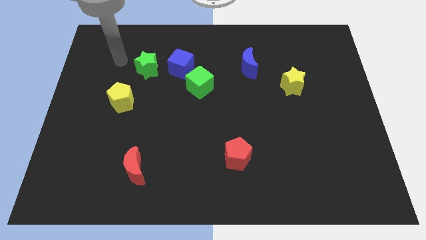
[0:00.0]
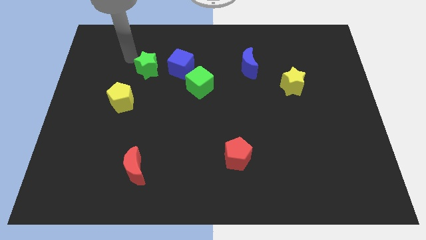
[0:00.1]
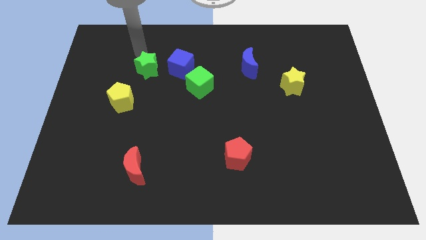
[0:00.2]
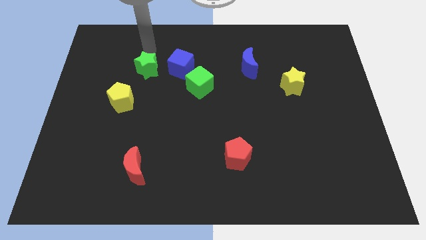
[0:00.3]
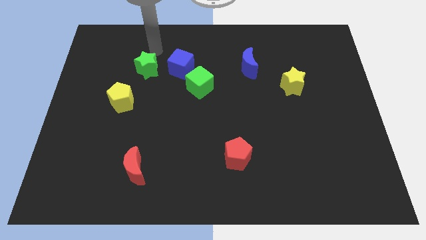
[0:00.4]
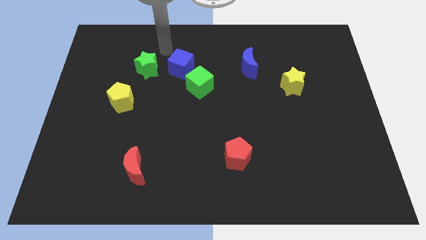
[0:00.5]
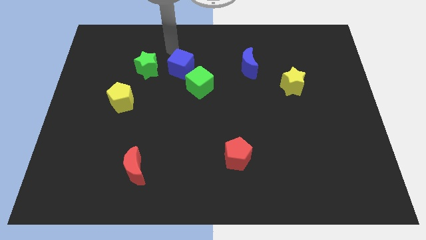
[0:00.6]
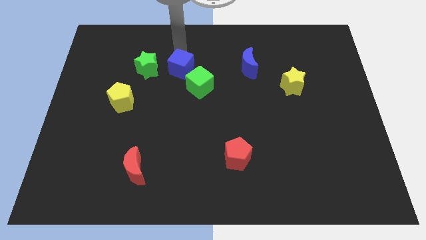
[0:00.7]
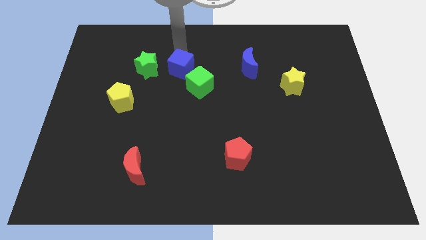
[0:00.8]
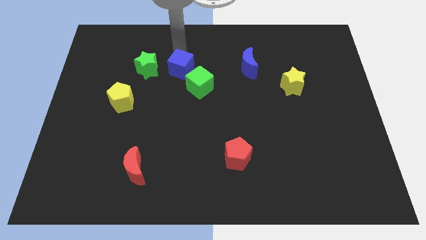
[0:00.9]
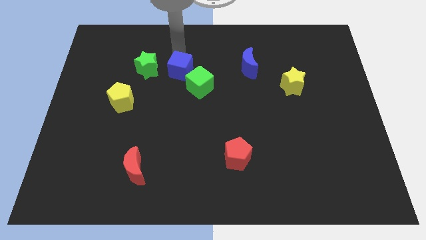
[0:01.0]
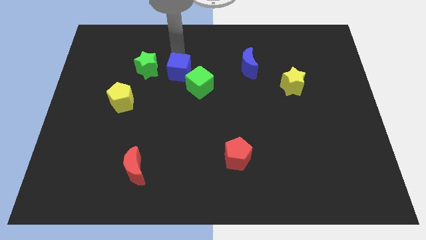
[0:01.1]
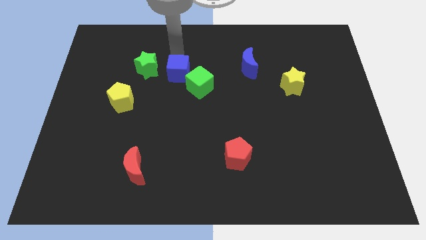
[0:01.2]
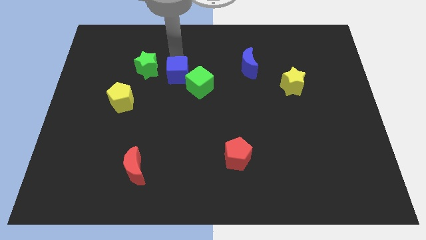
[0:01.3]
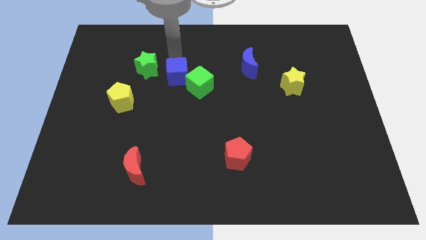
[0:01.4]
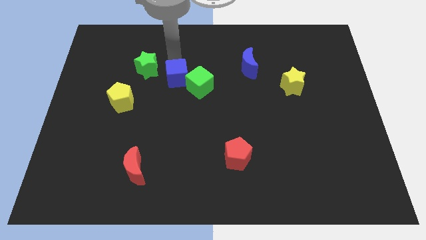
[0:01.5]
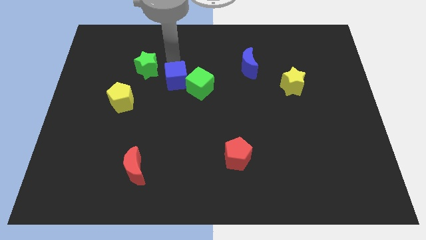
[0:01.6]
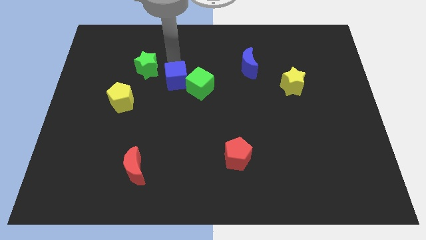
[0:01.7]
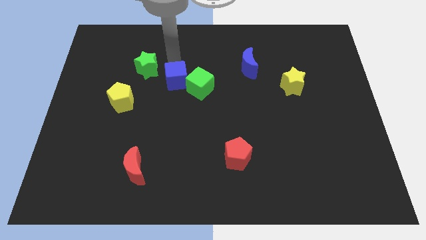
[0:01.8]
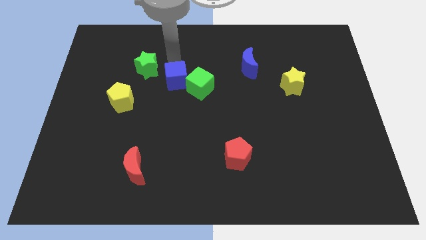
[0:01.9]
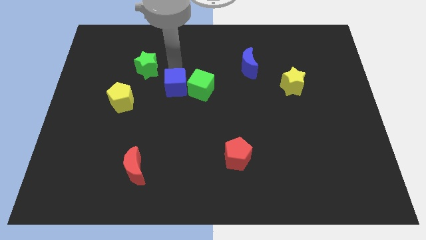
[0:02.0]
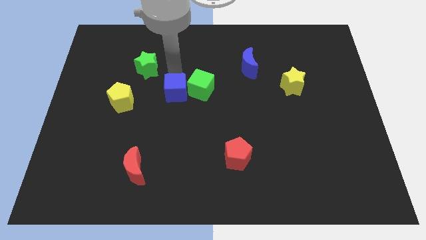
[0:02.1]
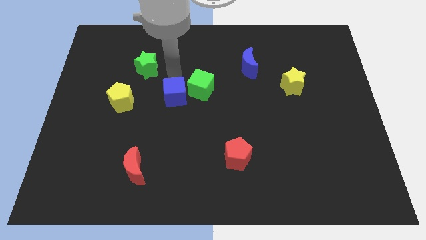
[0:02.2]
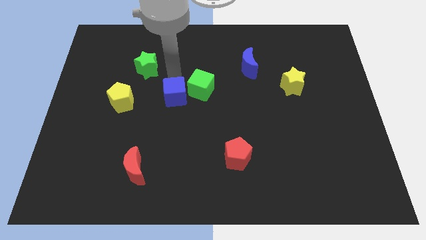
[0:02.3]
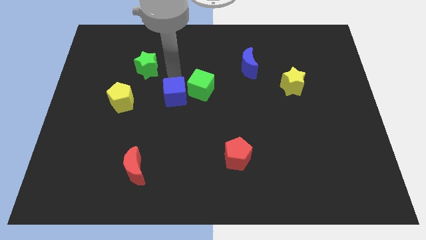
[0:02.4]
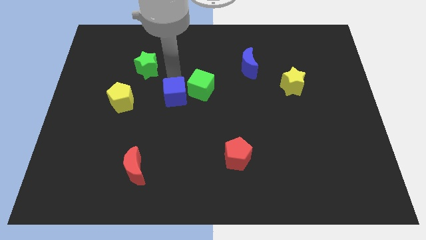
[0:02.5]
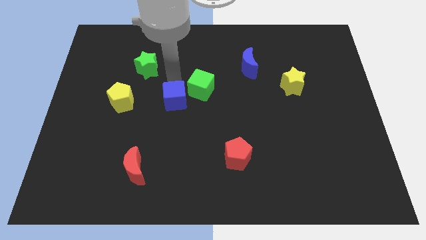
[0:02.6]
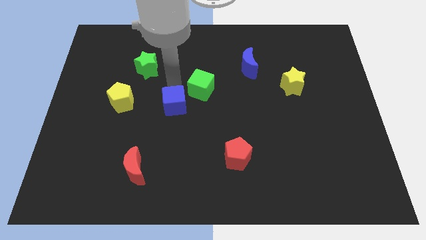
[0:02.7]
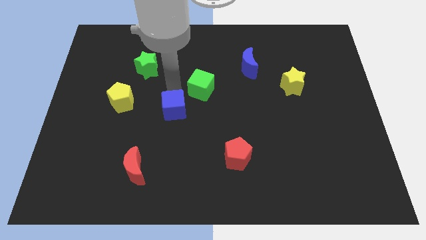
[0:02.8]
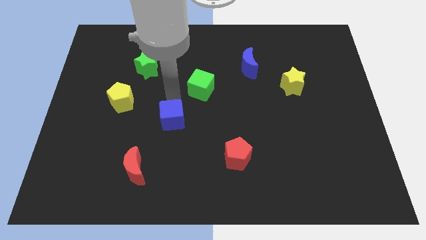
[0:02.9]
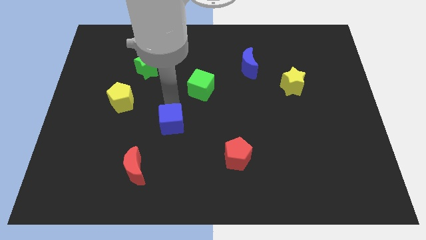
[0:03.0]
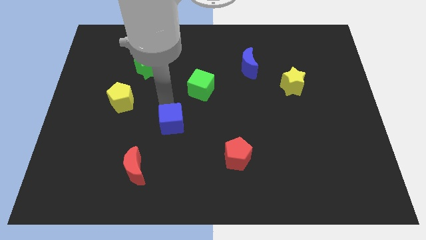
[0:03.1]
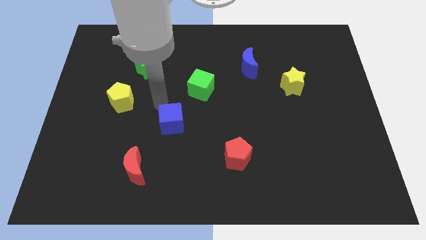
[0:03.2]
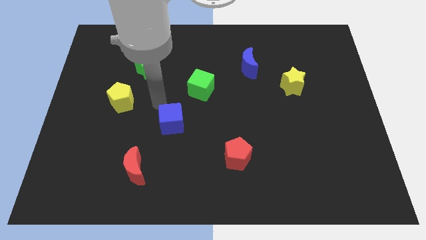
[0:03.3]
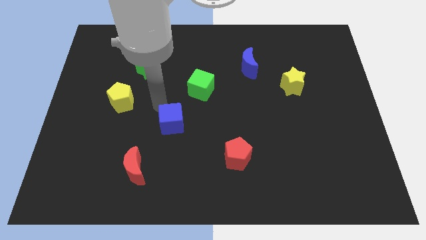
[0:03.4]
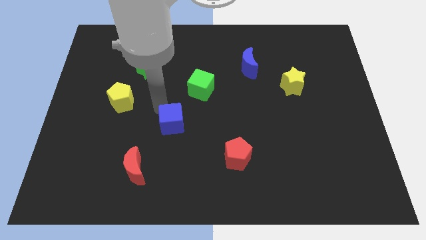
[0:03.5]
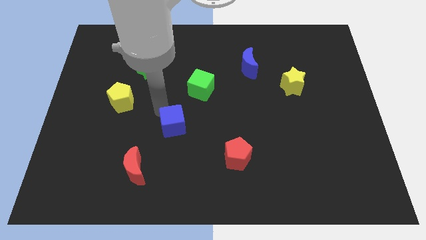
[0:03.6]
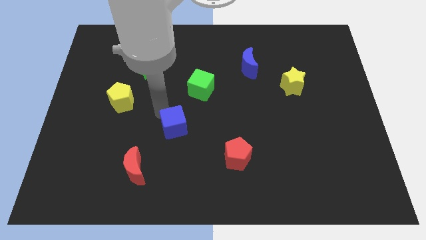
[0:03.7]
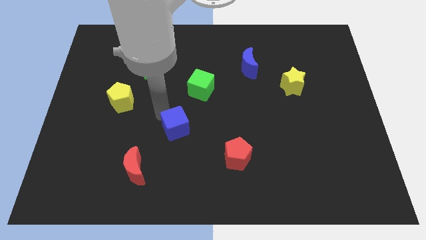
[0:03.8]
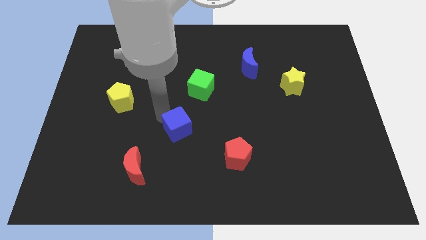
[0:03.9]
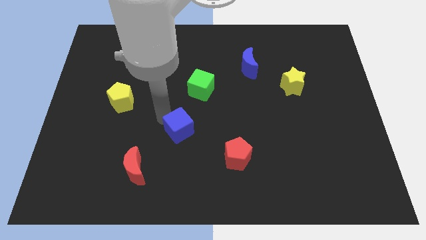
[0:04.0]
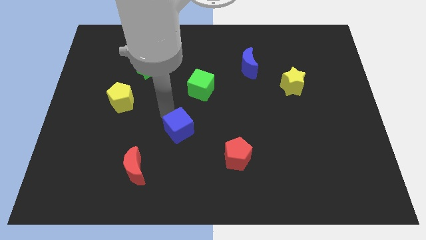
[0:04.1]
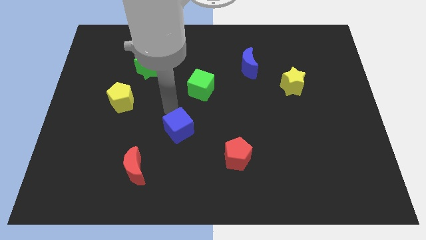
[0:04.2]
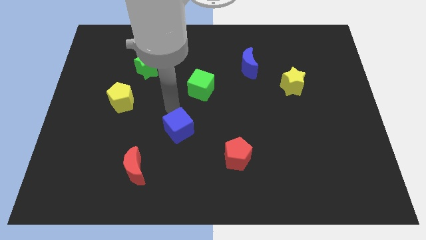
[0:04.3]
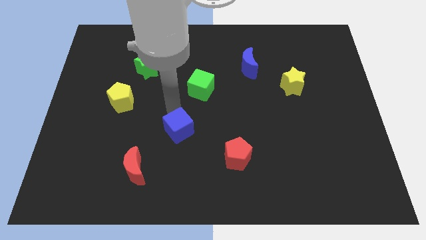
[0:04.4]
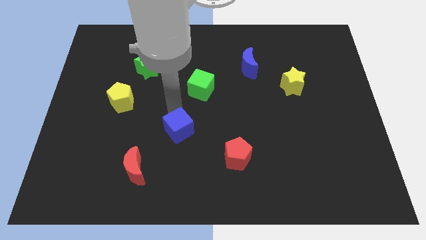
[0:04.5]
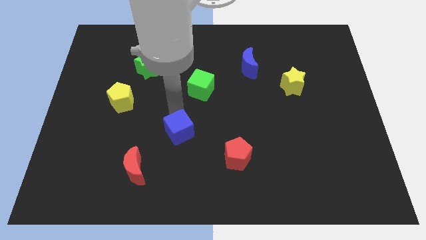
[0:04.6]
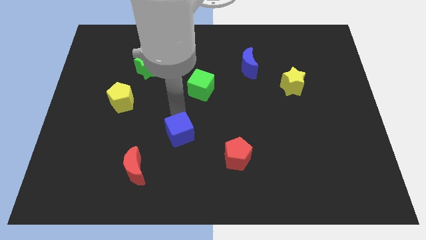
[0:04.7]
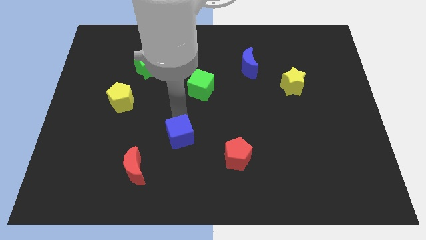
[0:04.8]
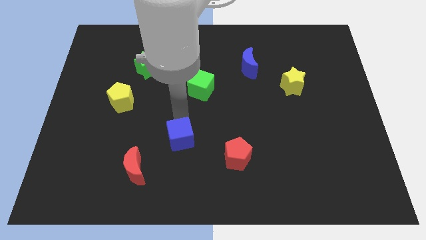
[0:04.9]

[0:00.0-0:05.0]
move the blue cube just left of the red pentagon

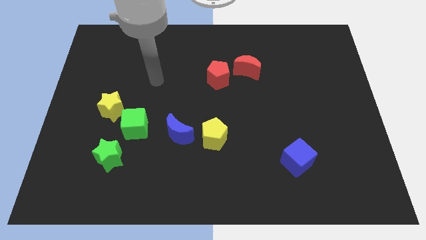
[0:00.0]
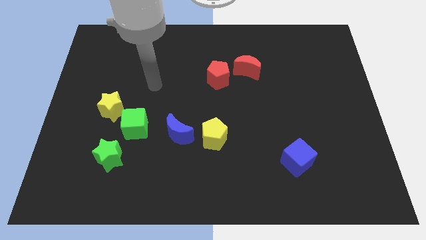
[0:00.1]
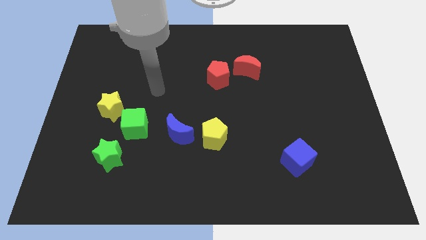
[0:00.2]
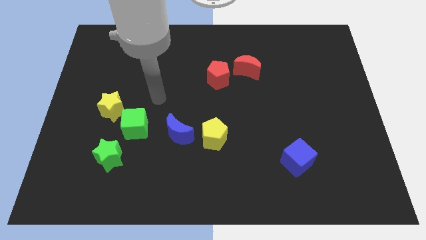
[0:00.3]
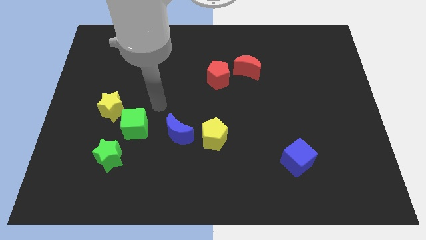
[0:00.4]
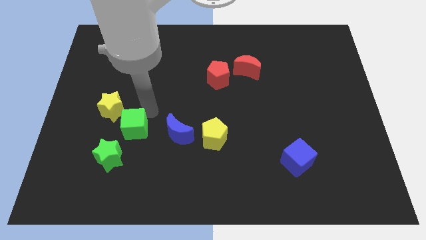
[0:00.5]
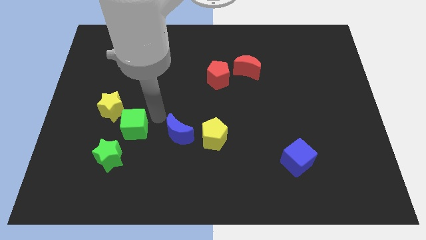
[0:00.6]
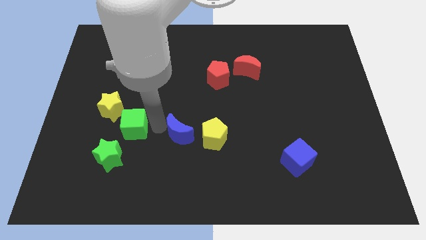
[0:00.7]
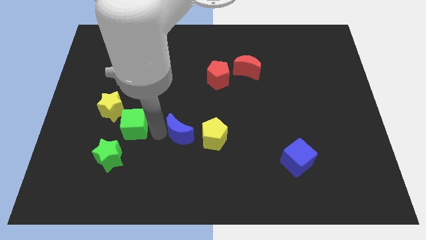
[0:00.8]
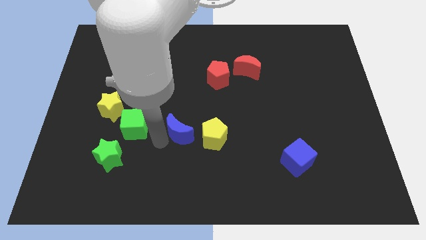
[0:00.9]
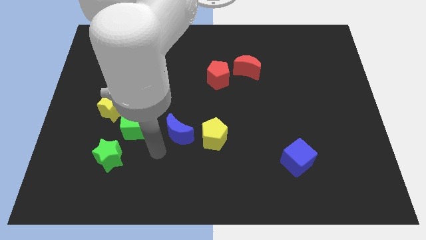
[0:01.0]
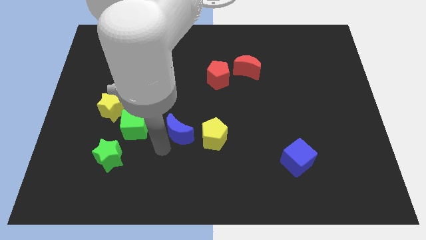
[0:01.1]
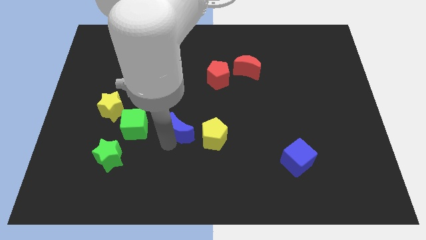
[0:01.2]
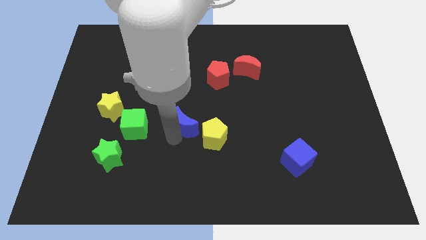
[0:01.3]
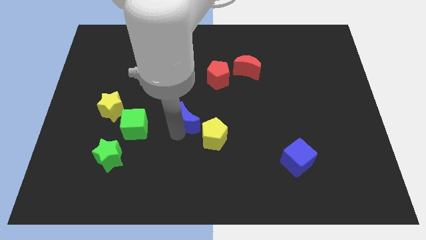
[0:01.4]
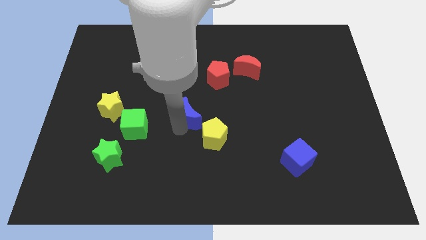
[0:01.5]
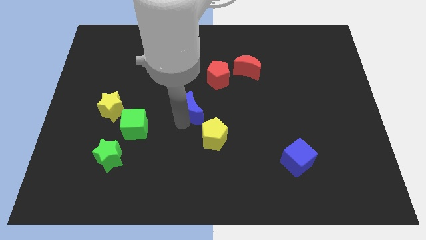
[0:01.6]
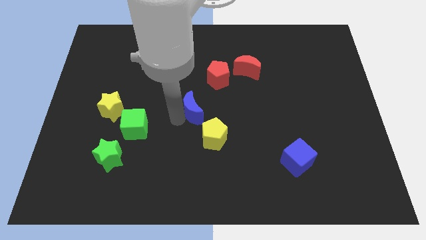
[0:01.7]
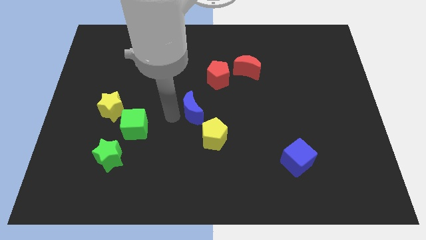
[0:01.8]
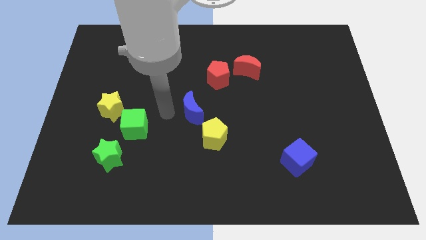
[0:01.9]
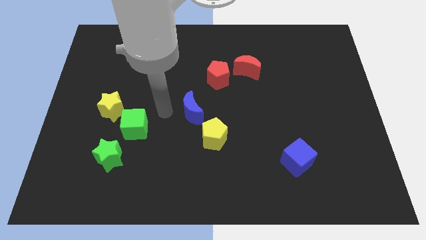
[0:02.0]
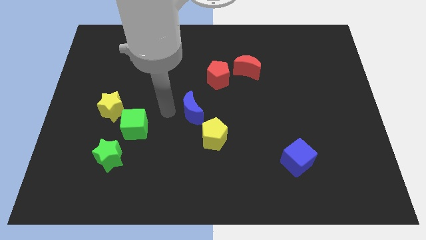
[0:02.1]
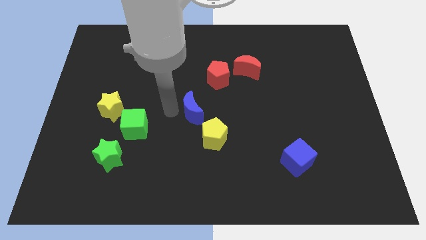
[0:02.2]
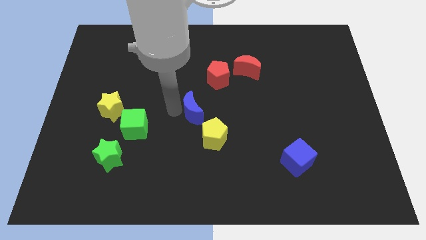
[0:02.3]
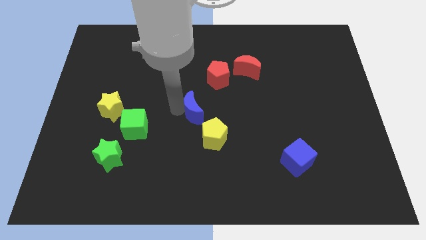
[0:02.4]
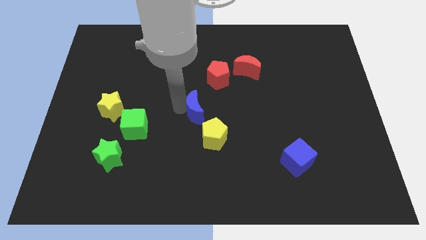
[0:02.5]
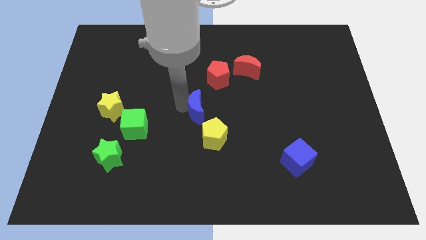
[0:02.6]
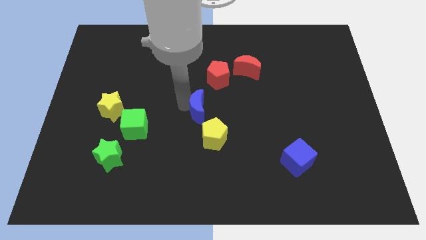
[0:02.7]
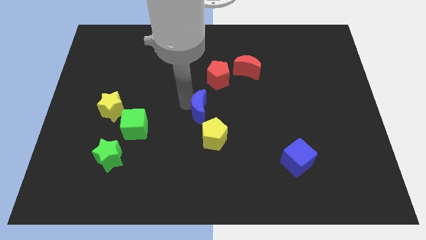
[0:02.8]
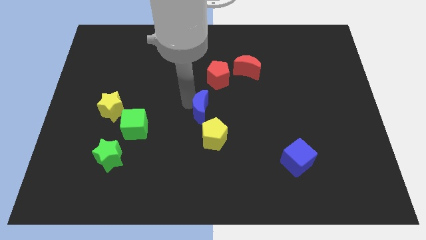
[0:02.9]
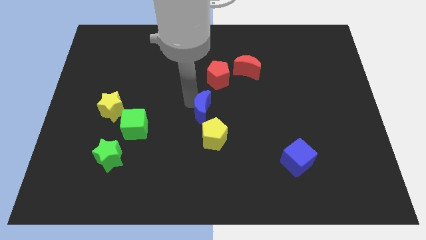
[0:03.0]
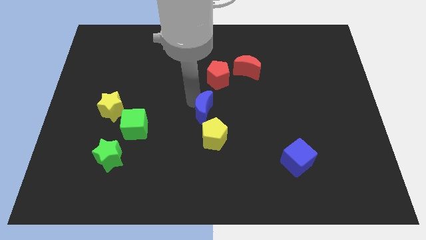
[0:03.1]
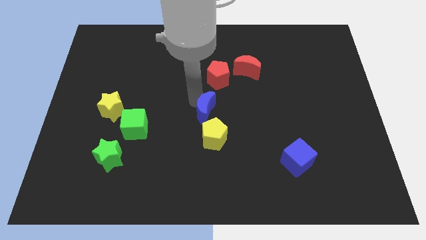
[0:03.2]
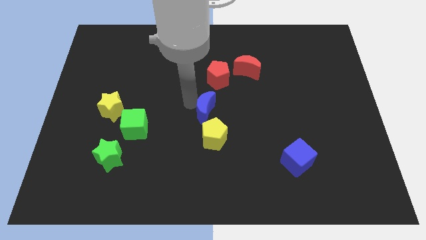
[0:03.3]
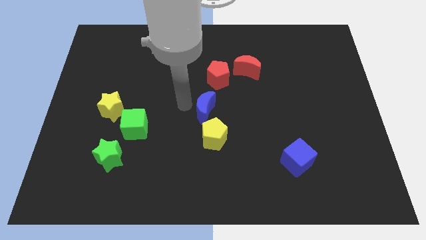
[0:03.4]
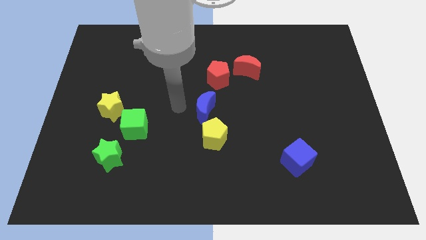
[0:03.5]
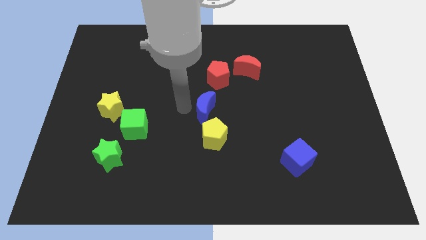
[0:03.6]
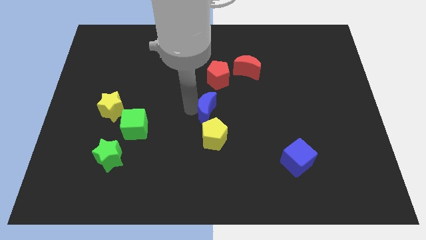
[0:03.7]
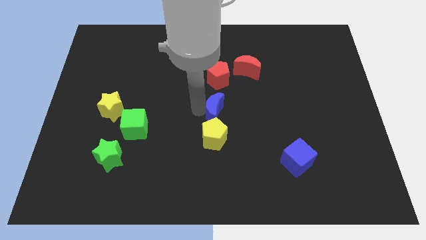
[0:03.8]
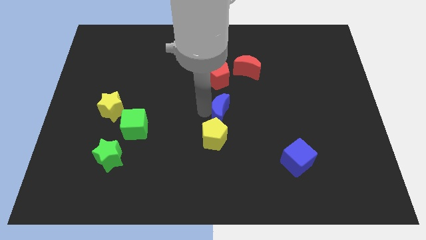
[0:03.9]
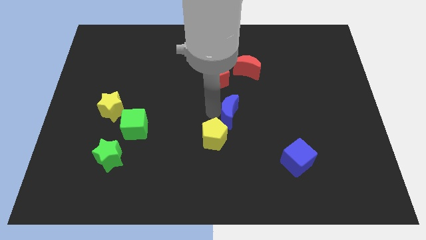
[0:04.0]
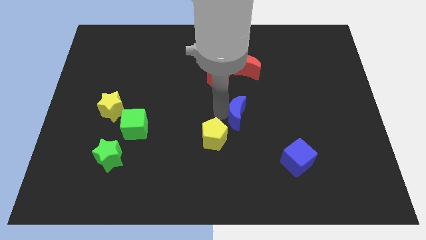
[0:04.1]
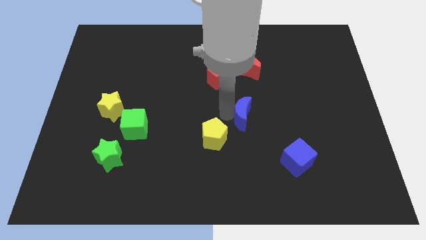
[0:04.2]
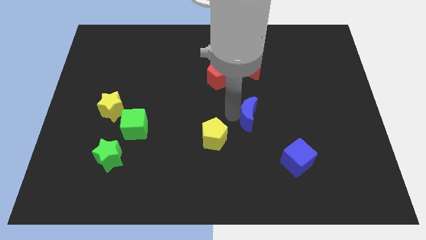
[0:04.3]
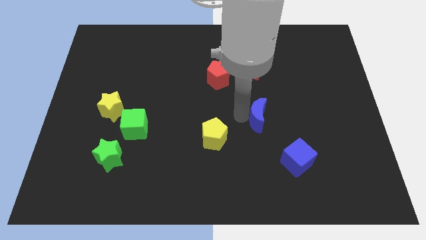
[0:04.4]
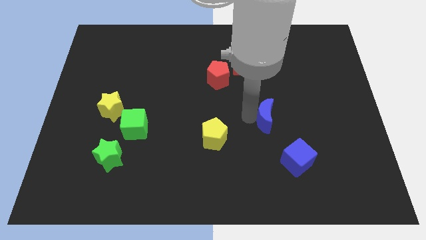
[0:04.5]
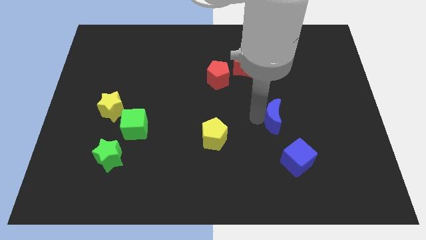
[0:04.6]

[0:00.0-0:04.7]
put the blue moon above the blue cube
